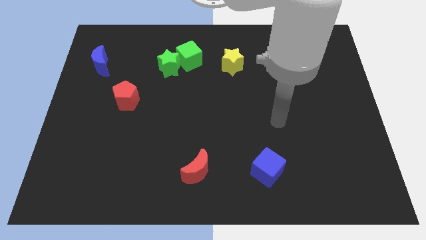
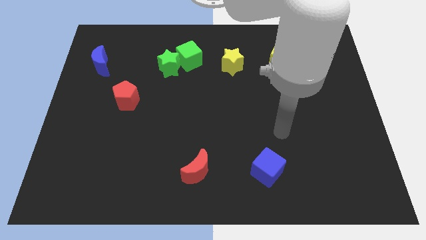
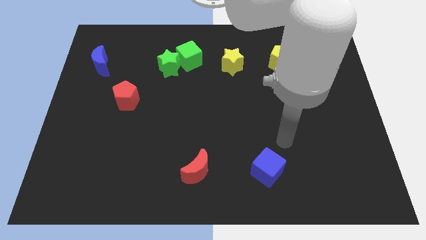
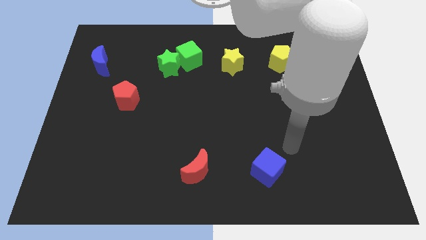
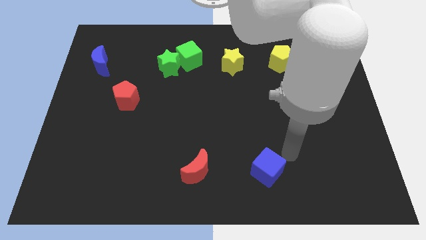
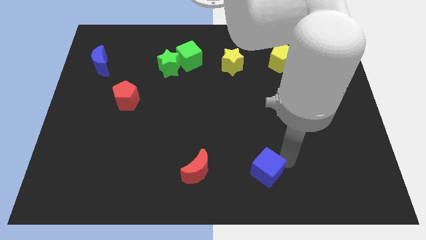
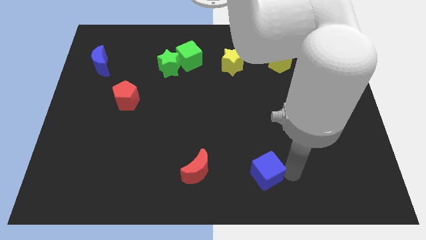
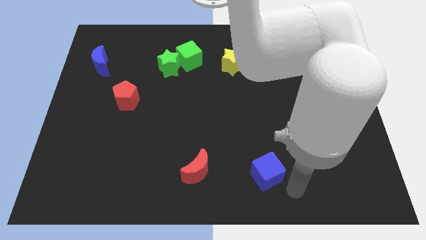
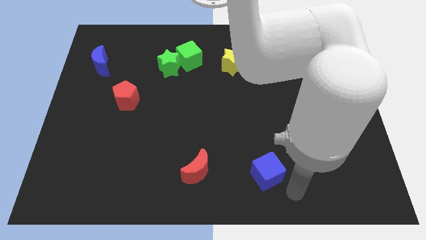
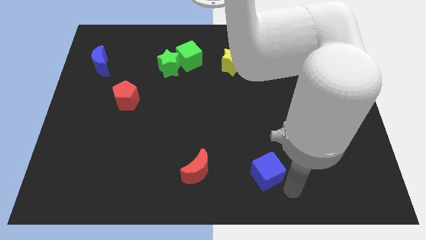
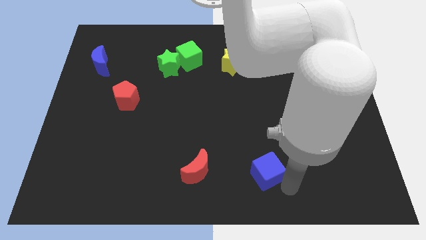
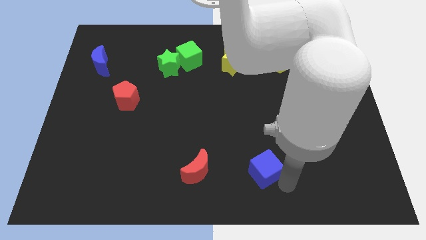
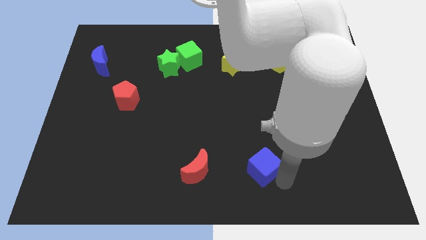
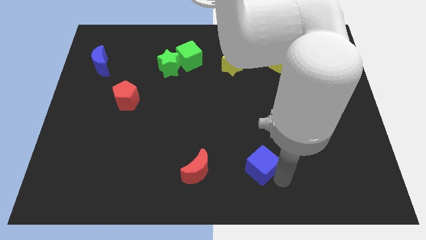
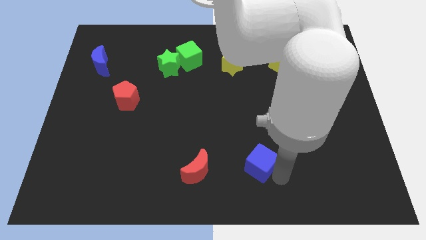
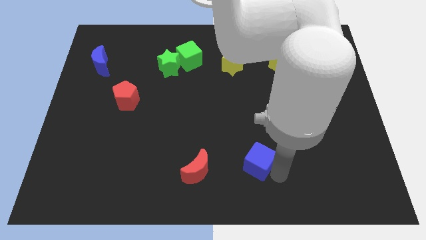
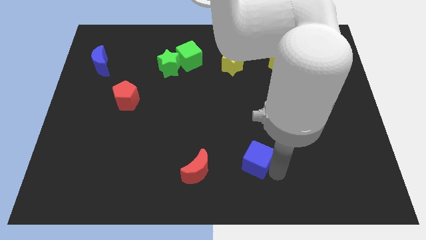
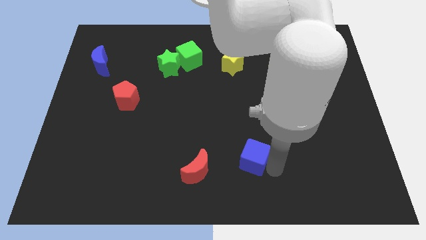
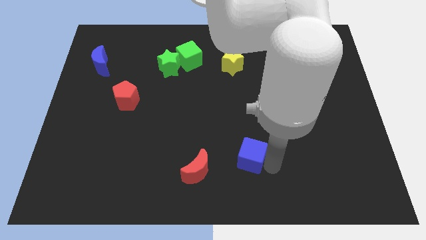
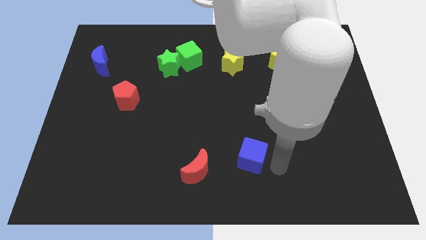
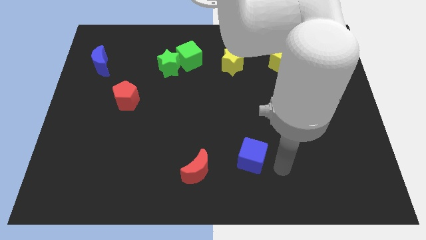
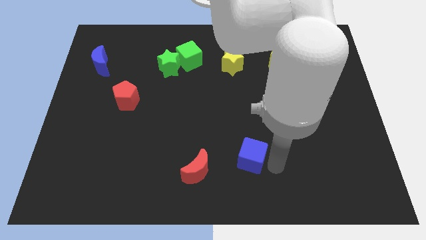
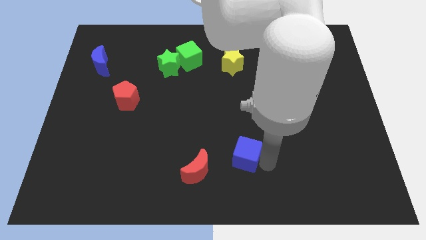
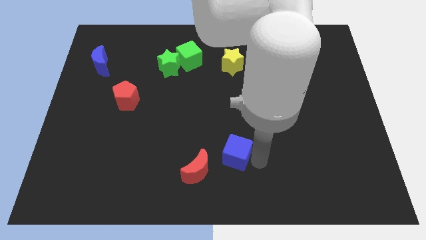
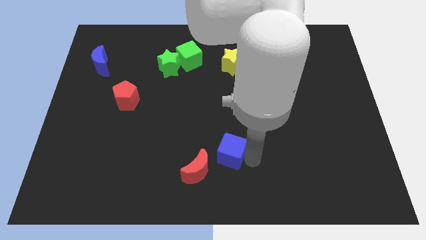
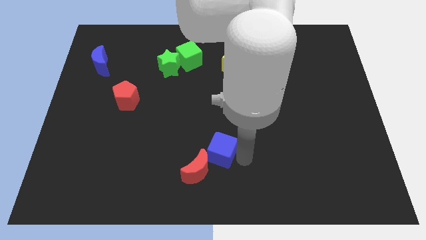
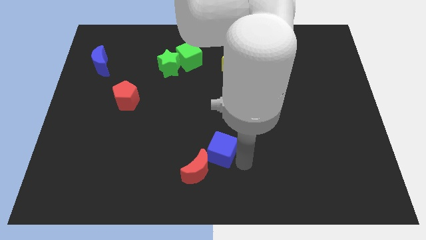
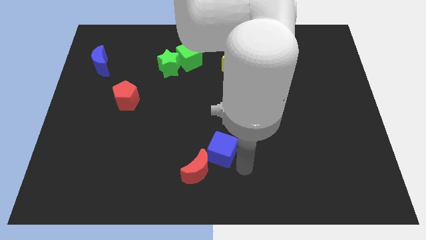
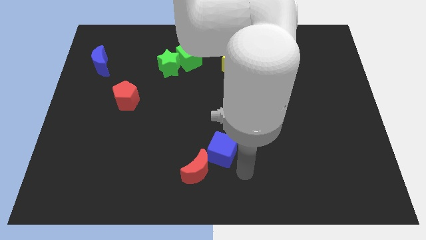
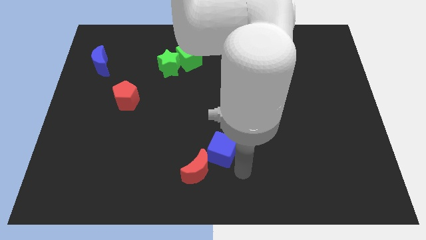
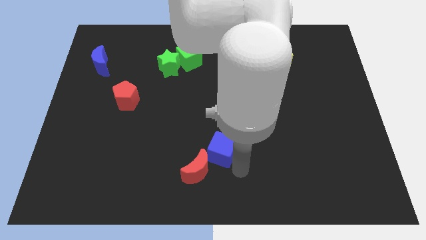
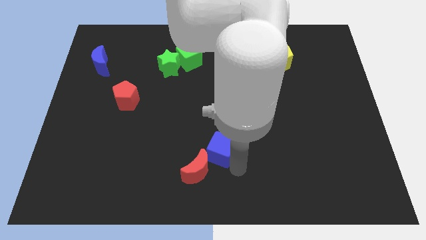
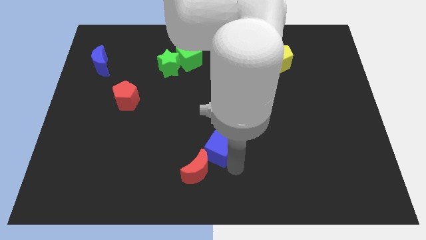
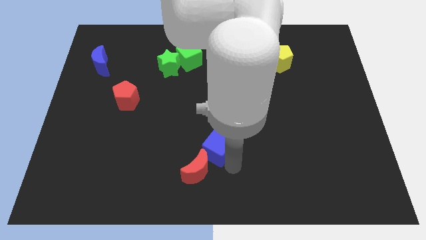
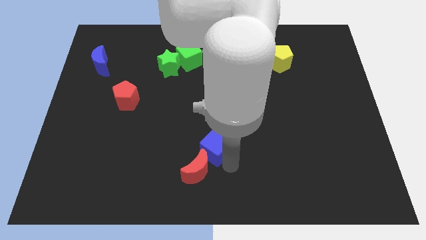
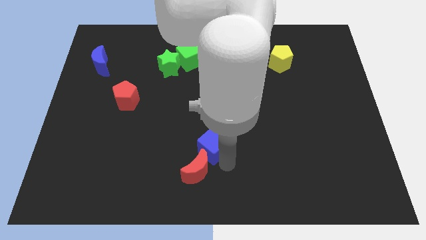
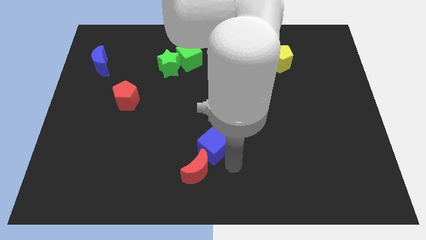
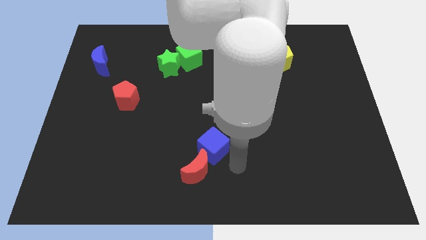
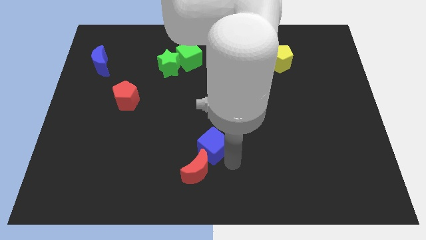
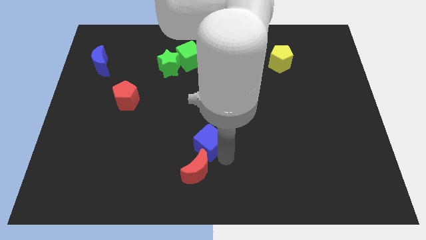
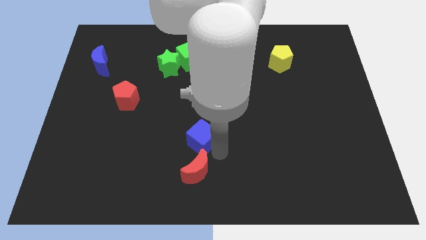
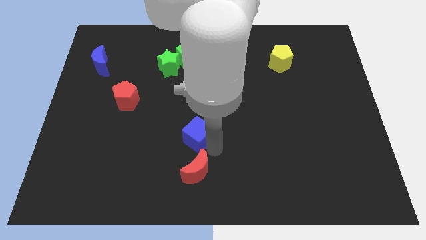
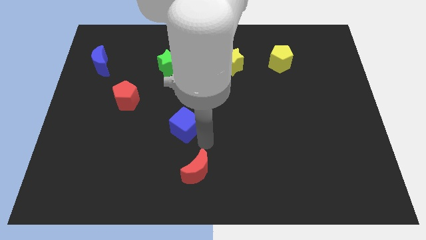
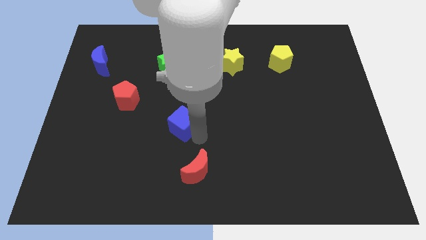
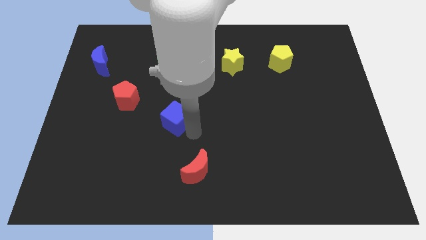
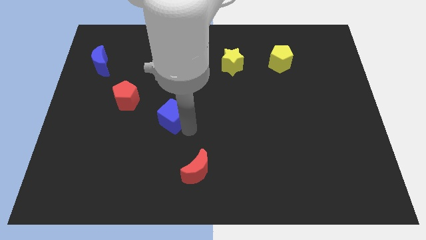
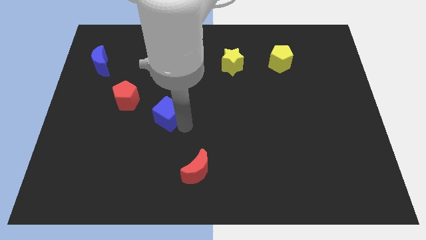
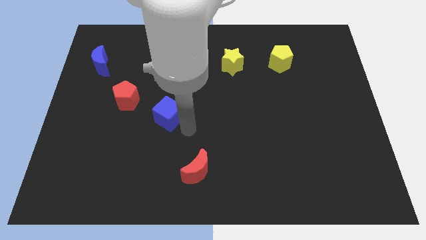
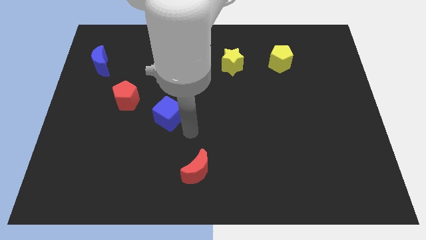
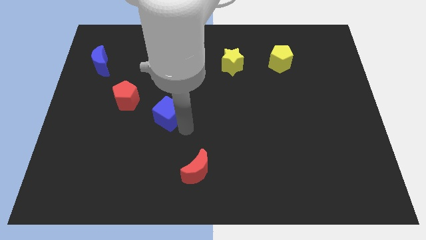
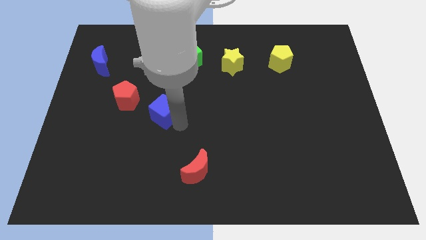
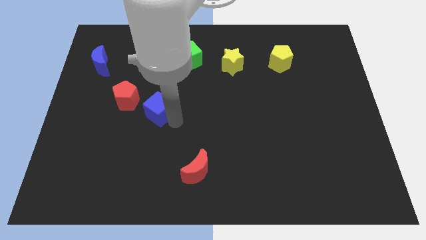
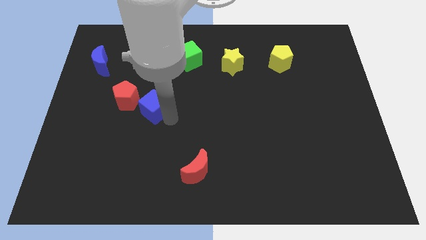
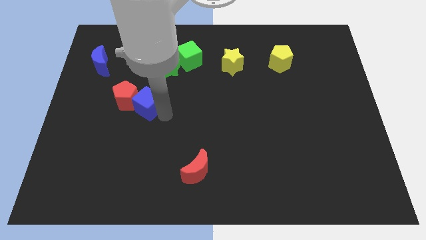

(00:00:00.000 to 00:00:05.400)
push the blue cube close to the red pentagon

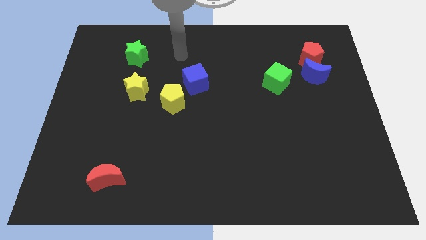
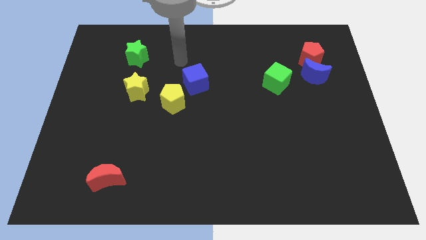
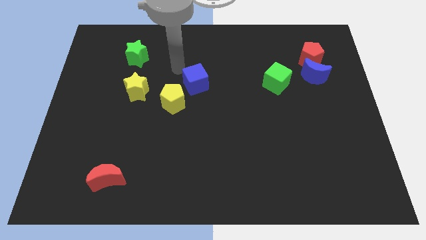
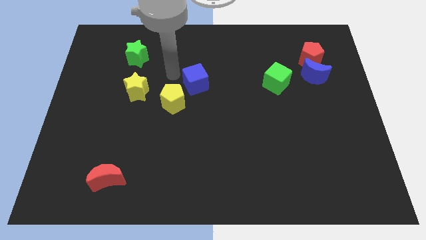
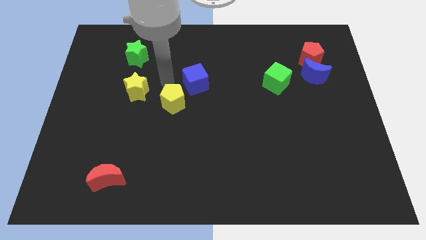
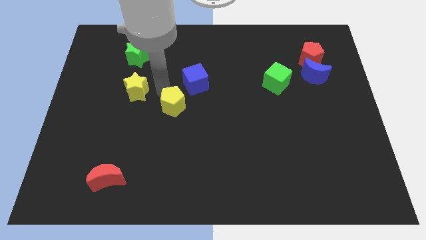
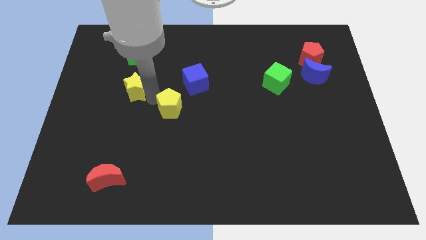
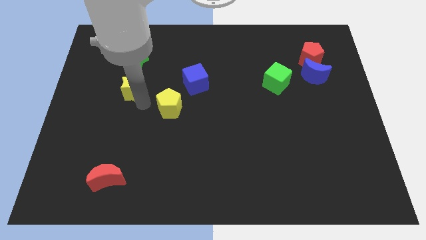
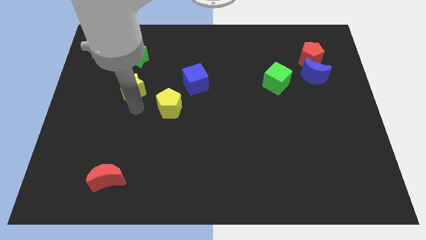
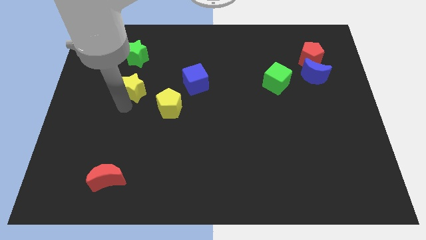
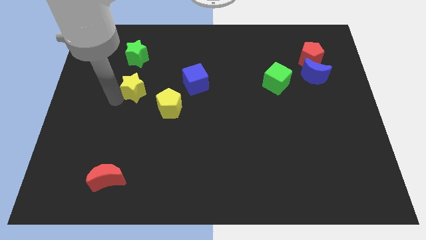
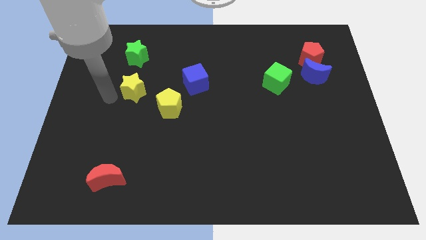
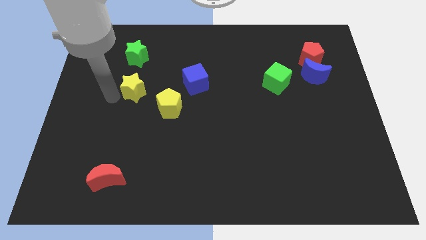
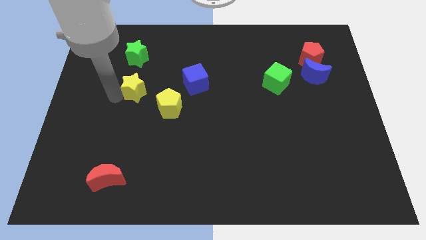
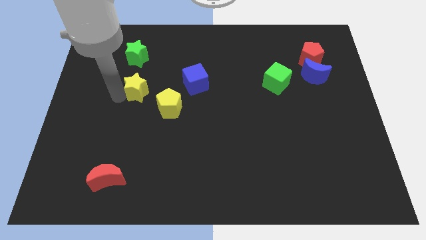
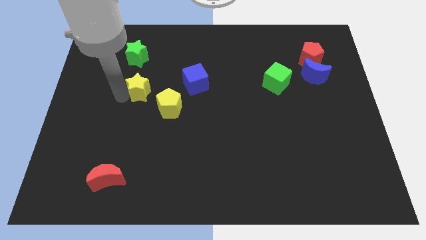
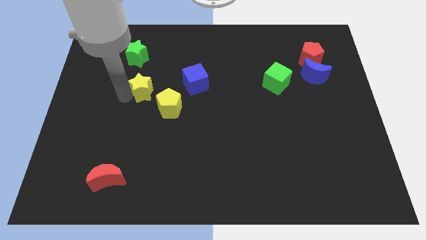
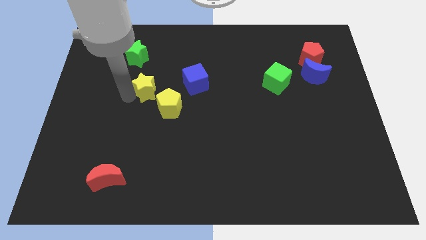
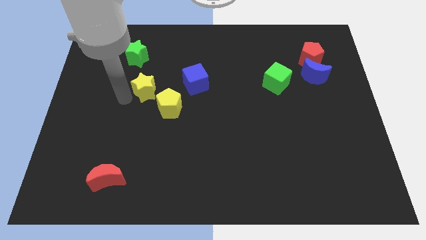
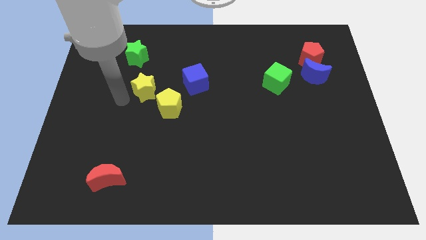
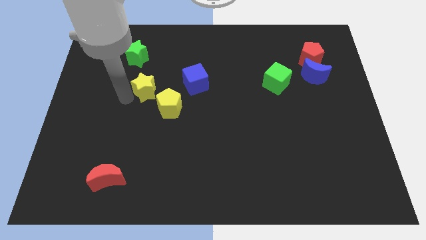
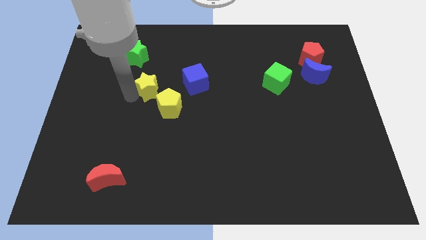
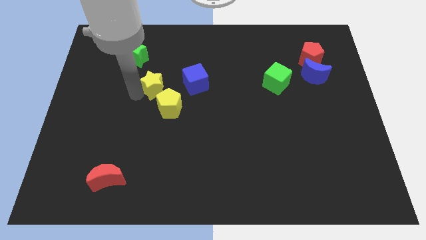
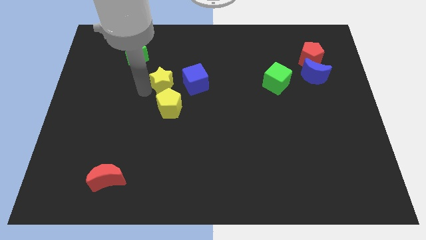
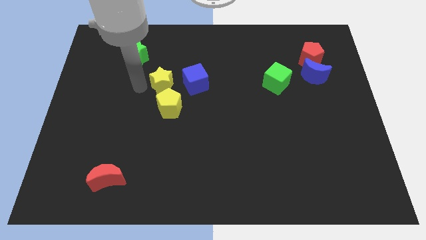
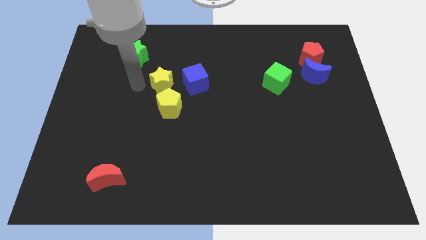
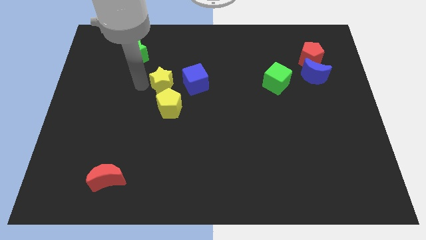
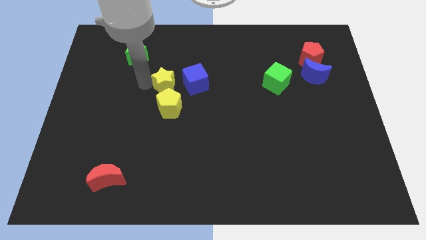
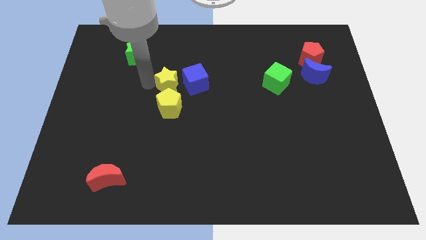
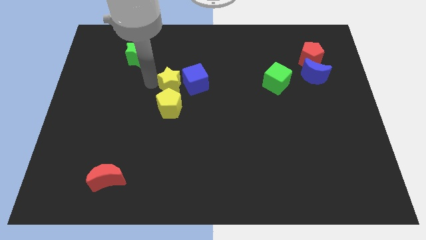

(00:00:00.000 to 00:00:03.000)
put the yellow star close to the blue cube
